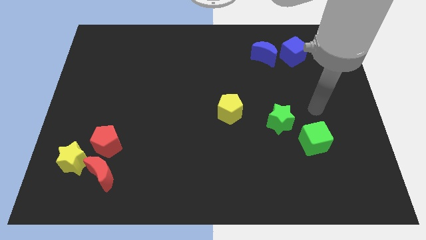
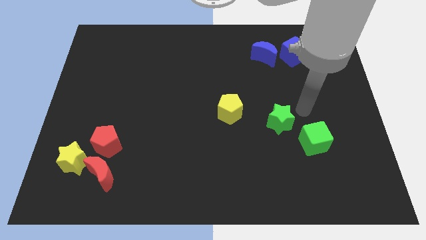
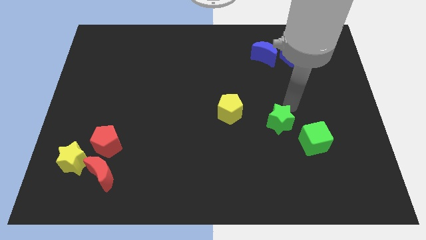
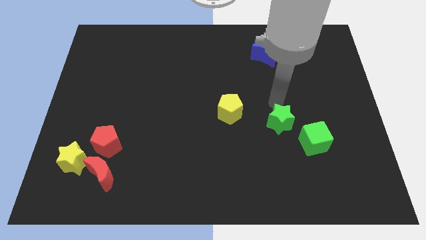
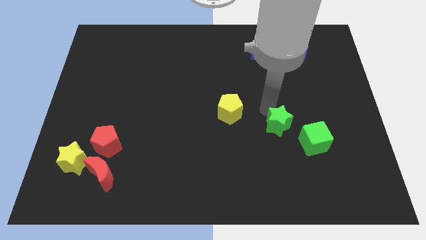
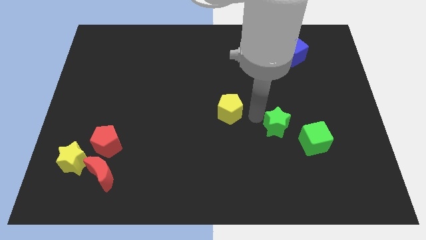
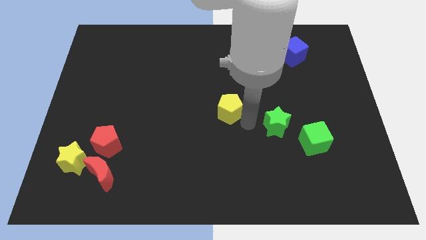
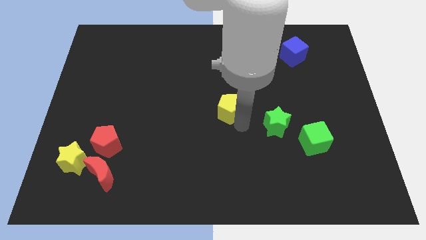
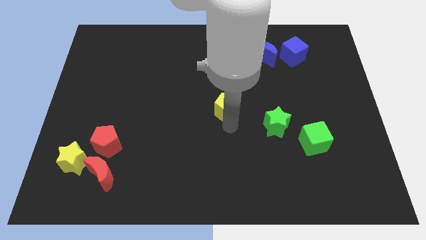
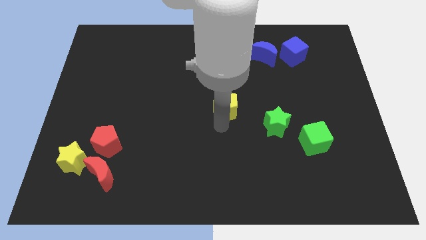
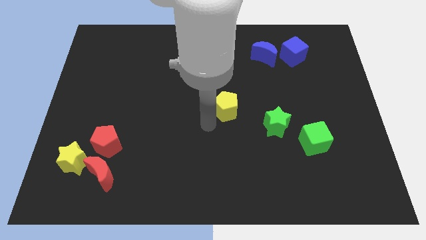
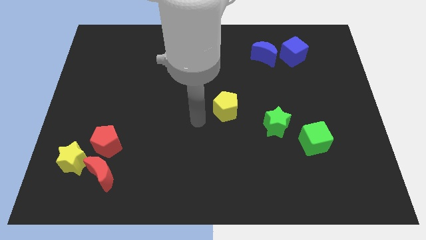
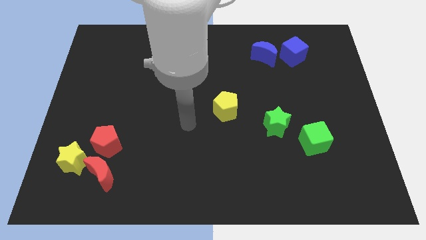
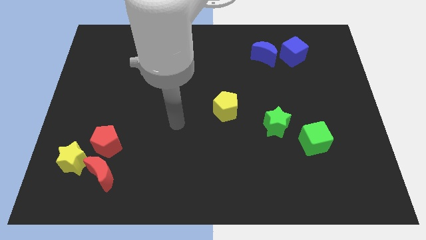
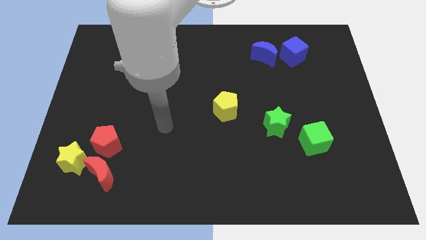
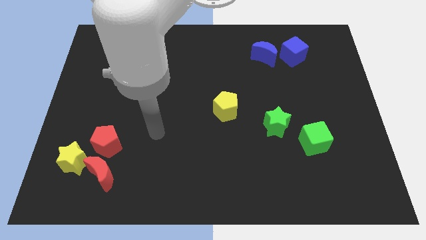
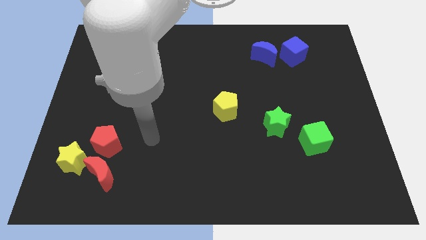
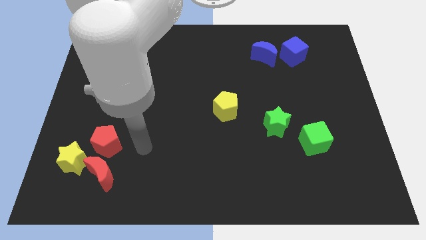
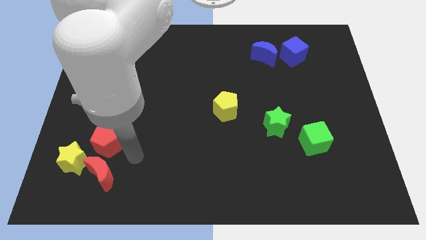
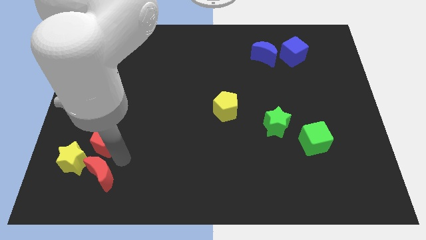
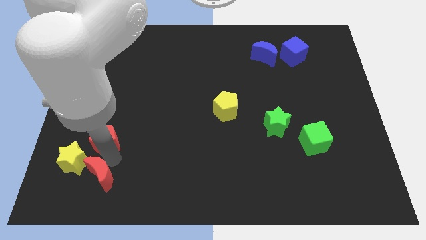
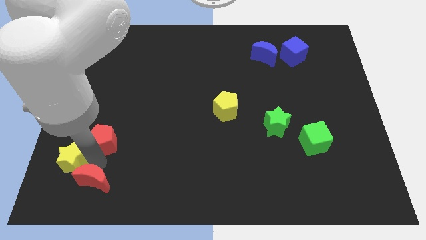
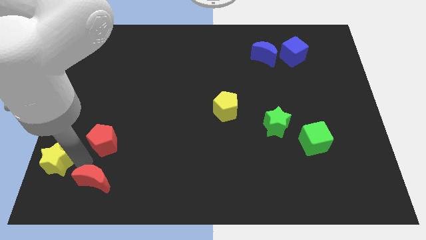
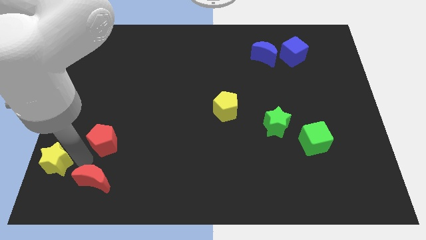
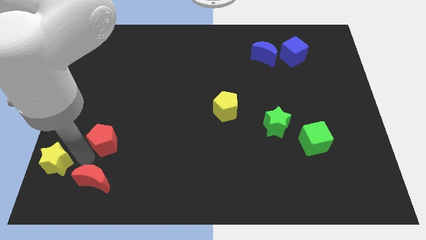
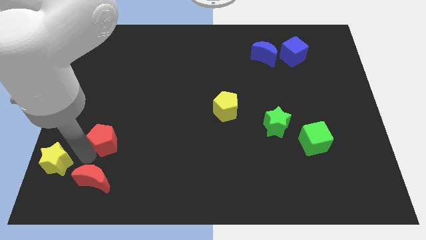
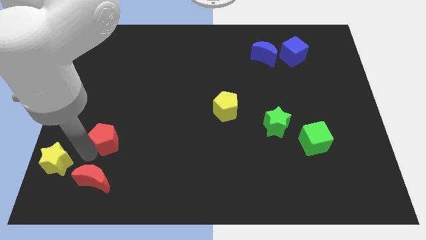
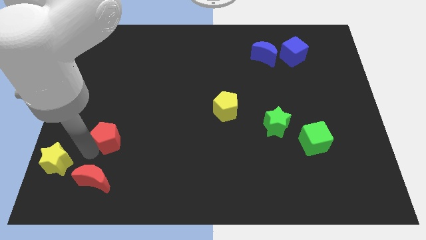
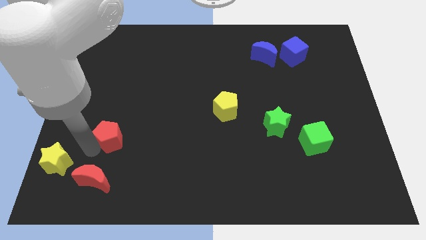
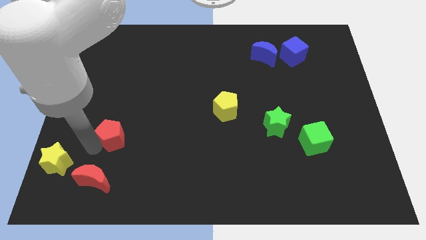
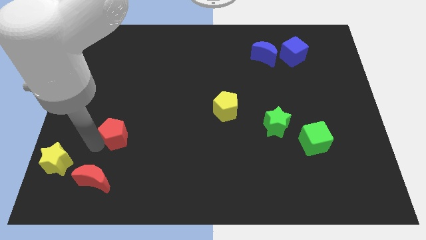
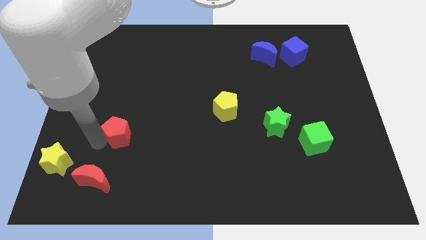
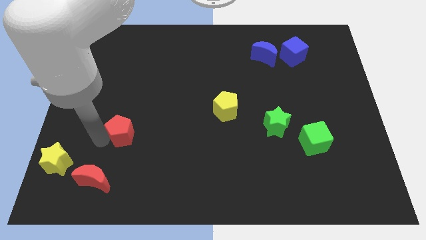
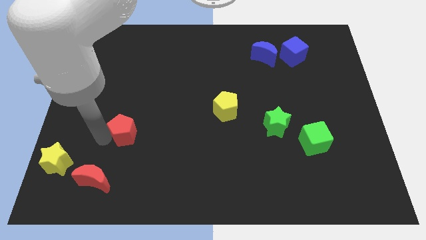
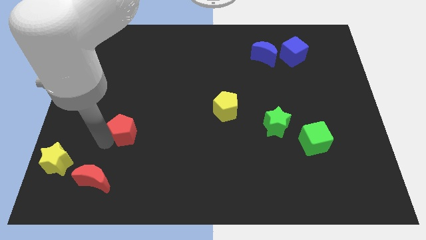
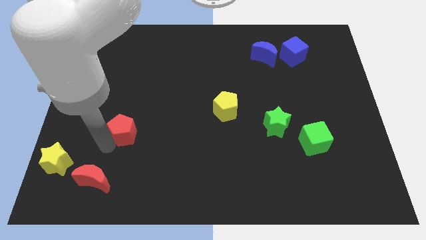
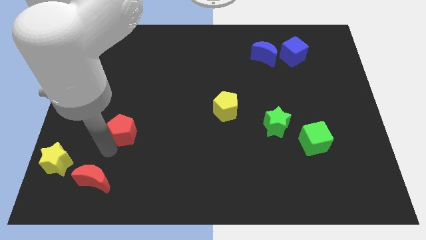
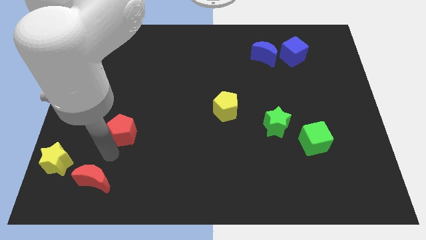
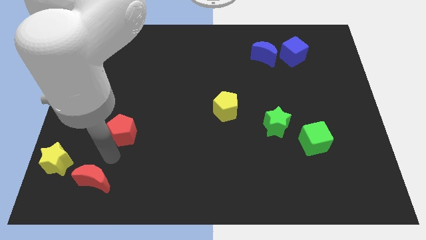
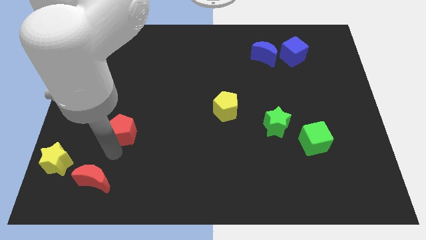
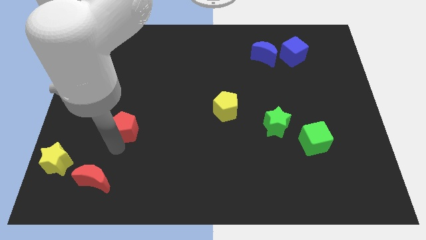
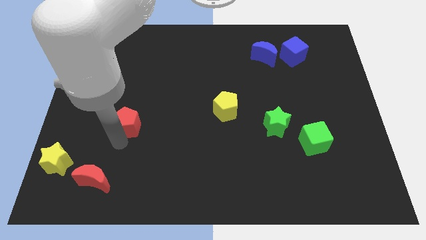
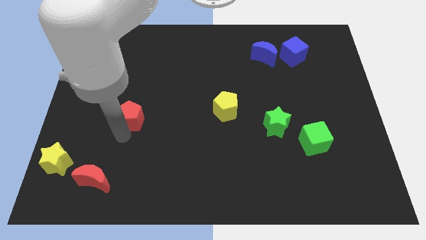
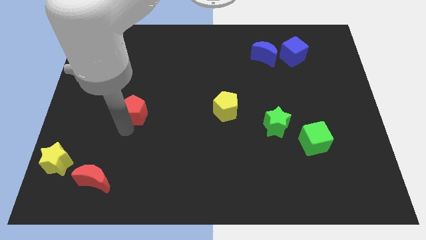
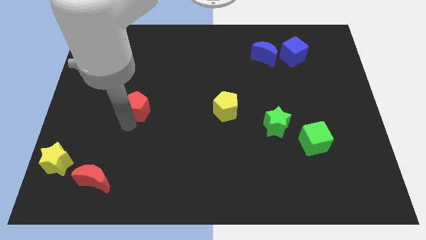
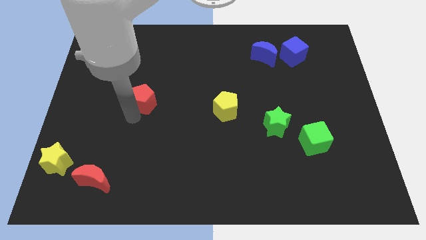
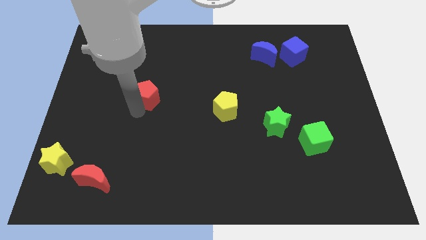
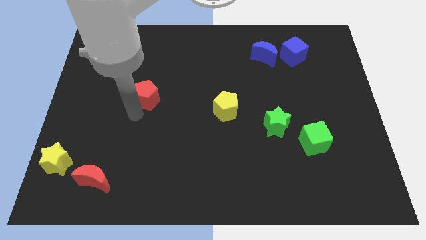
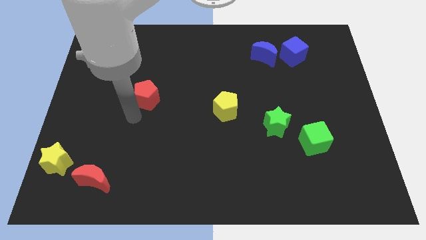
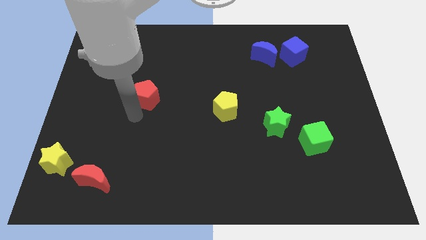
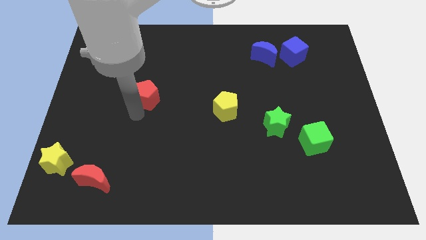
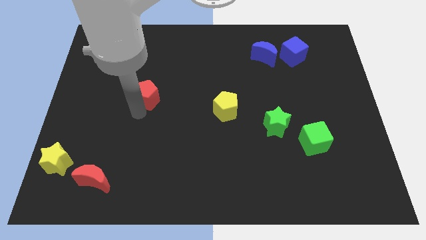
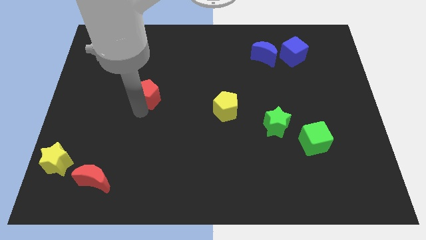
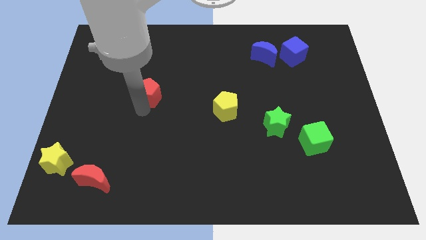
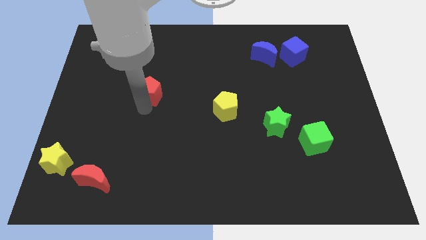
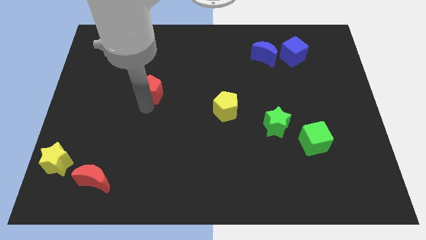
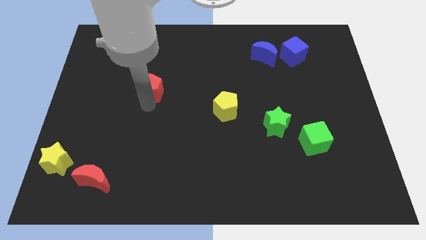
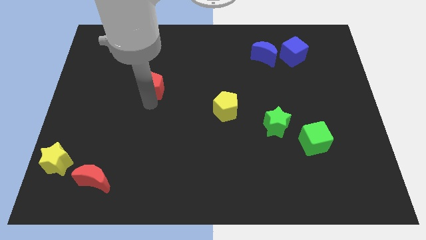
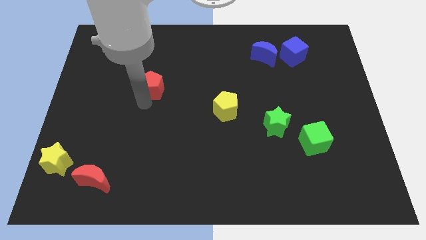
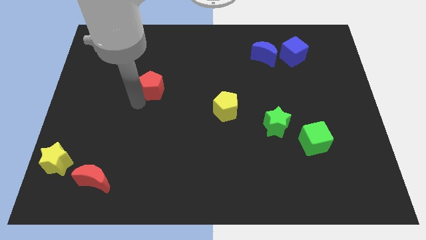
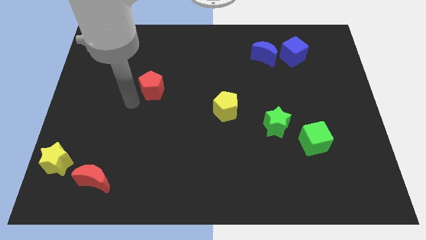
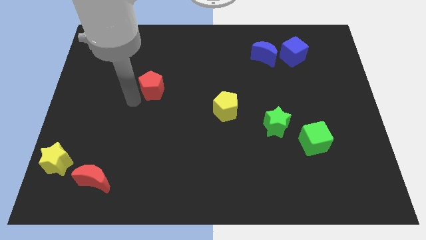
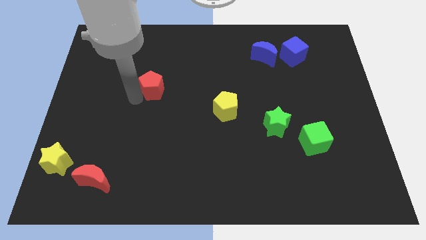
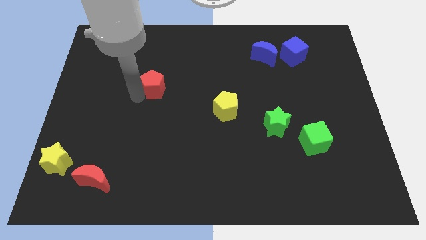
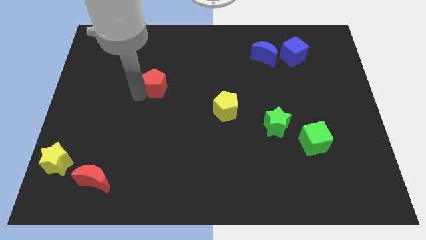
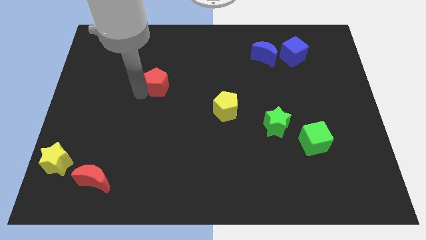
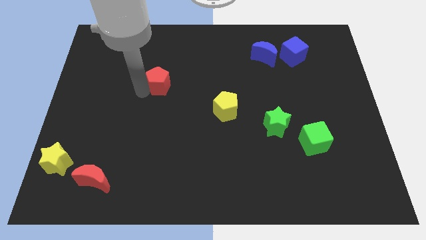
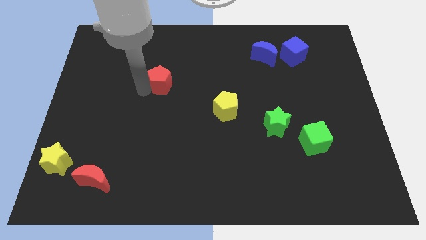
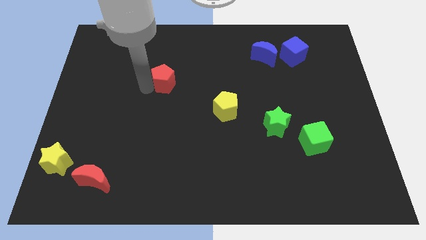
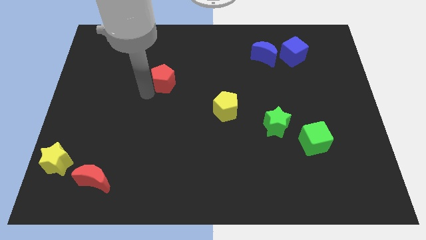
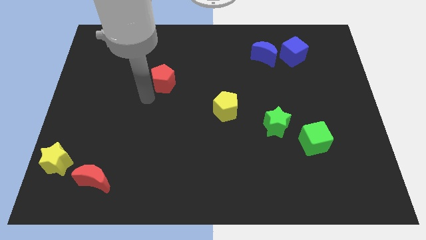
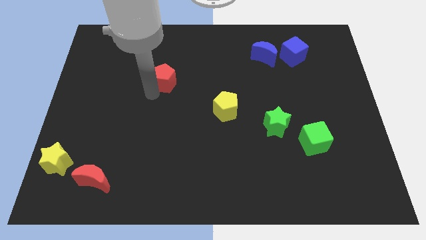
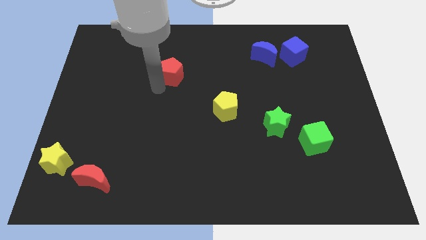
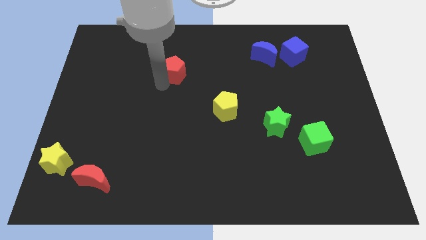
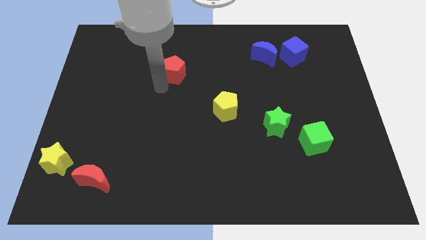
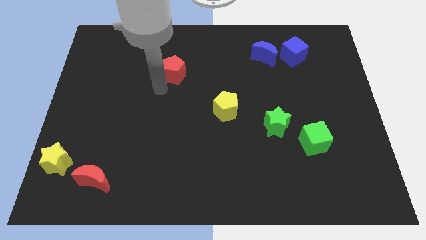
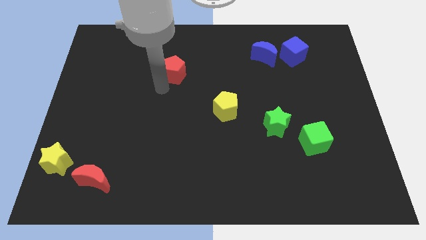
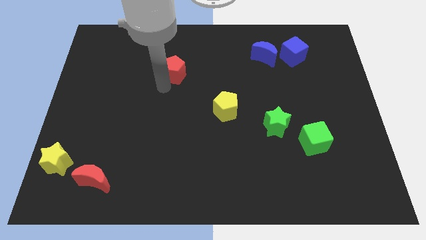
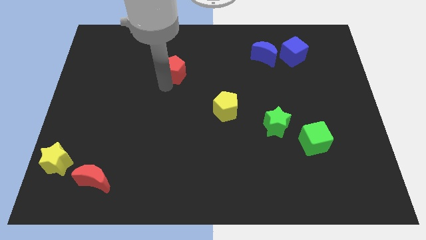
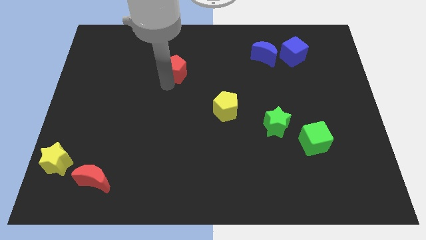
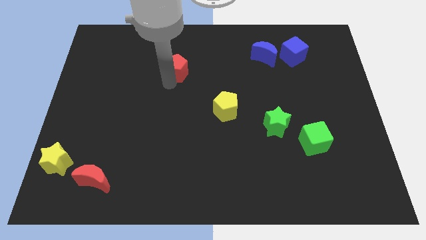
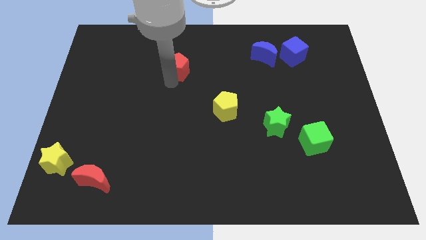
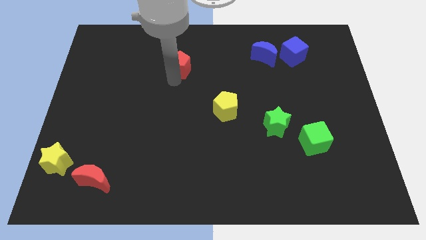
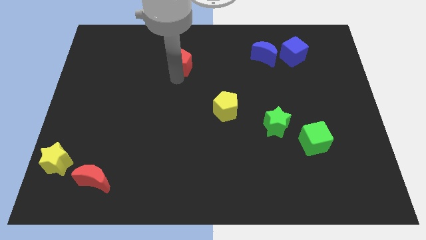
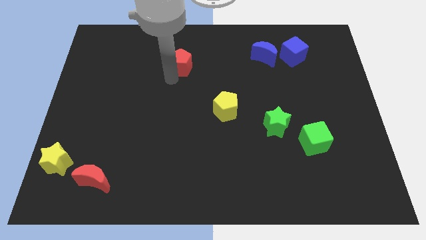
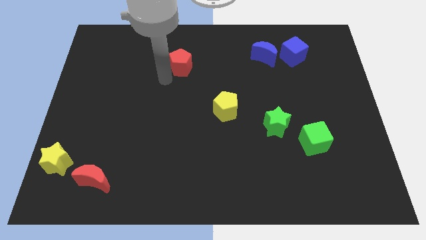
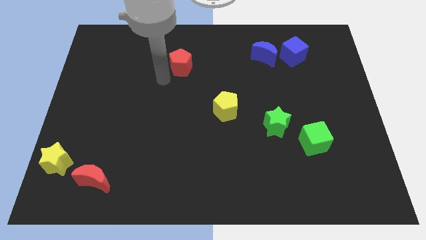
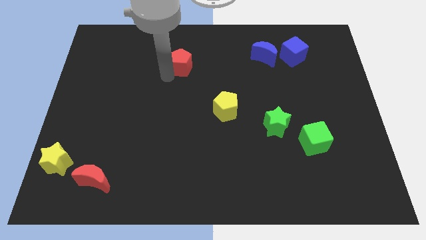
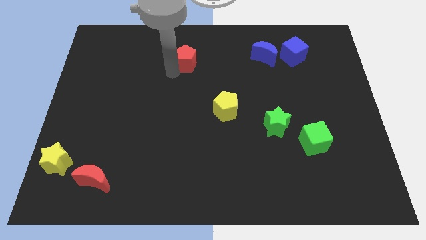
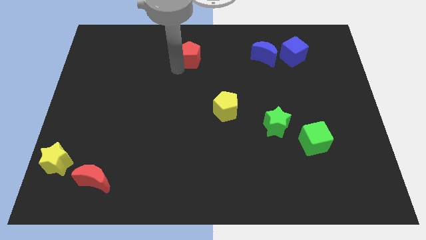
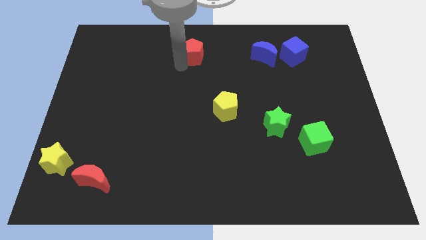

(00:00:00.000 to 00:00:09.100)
push the red pentagon to the top side
